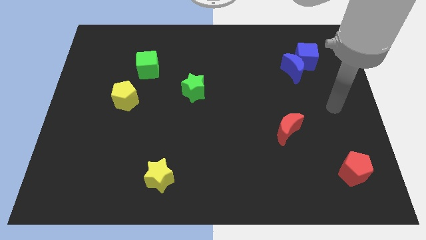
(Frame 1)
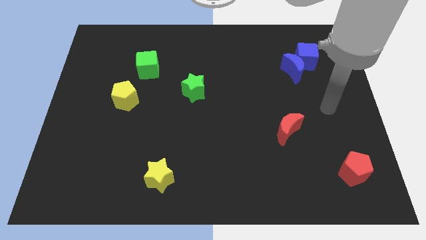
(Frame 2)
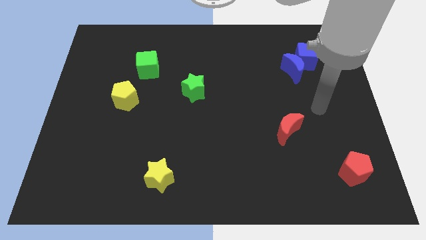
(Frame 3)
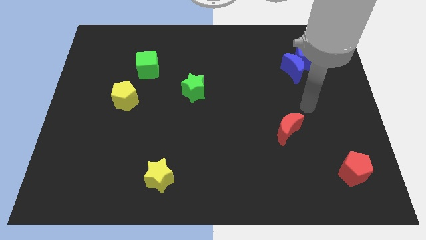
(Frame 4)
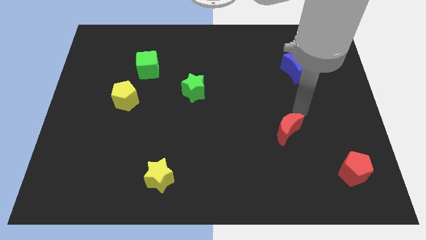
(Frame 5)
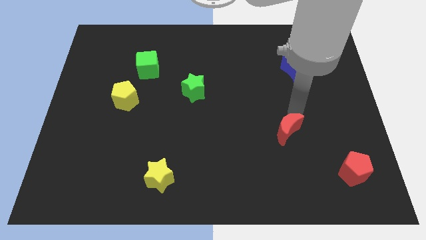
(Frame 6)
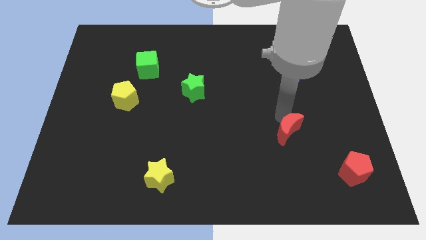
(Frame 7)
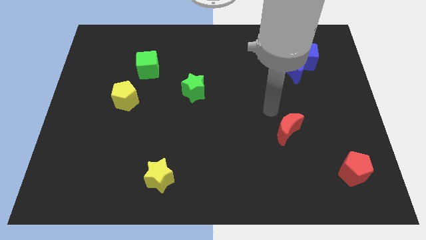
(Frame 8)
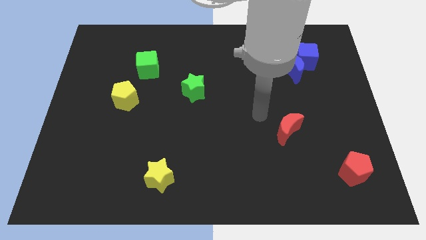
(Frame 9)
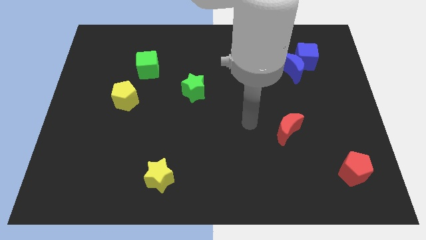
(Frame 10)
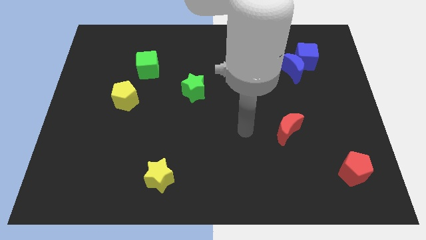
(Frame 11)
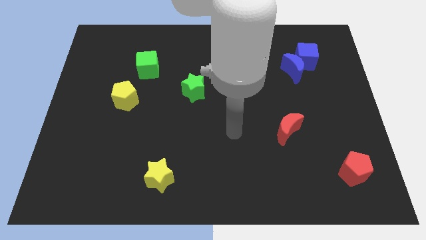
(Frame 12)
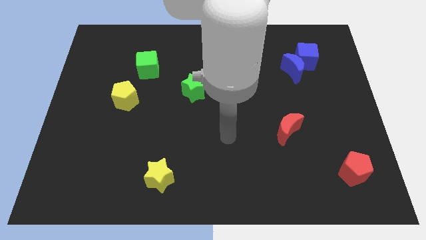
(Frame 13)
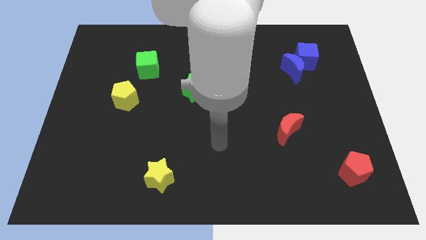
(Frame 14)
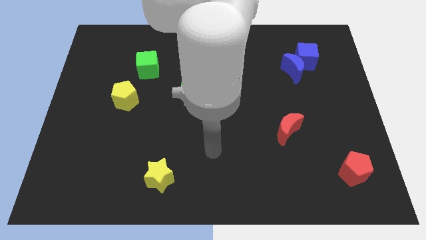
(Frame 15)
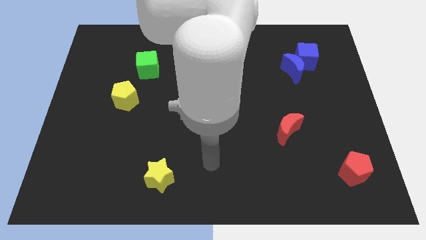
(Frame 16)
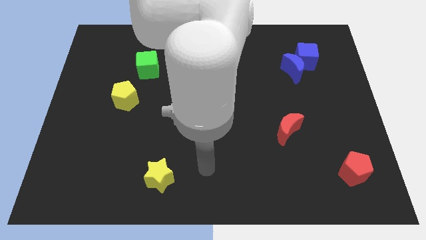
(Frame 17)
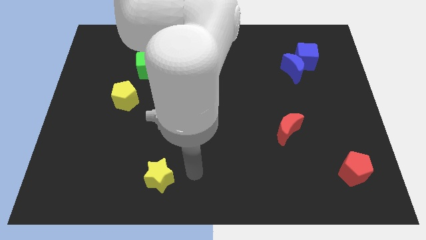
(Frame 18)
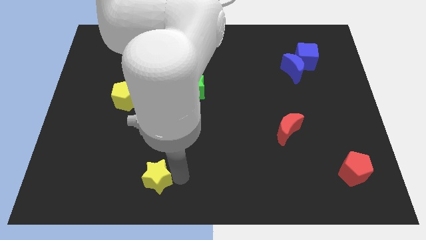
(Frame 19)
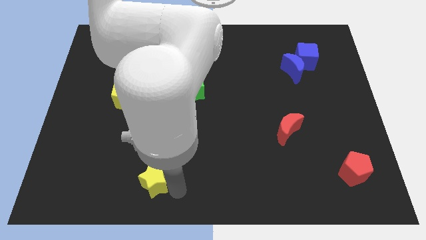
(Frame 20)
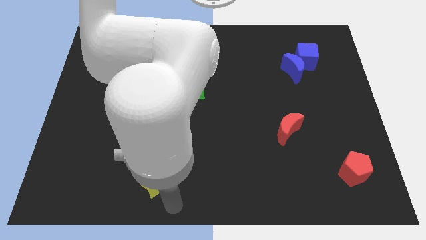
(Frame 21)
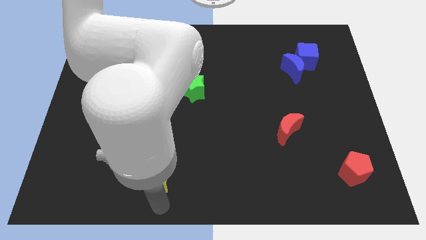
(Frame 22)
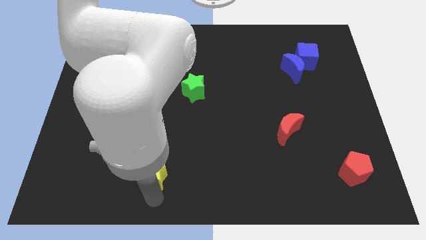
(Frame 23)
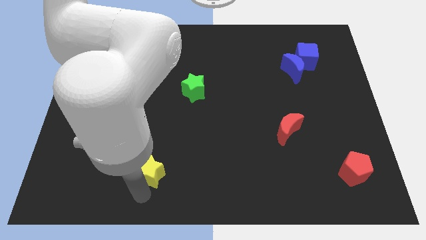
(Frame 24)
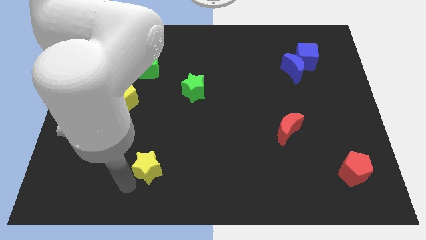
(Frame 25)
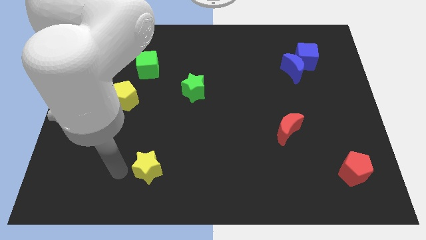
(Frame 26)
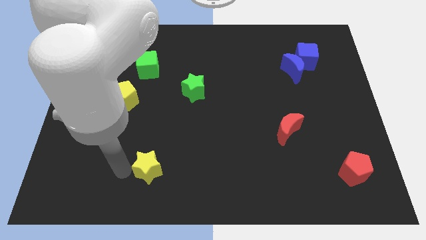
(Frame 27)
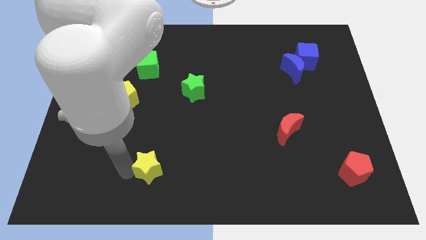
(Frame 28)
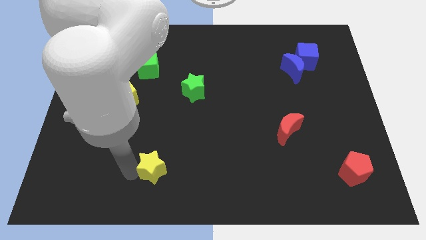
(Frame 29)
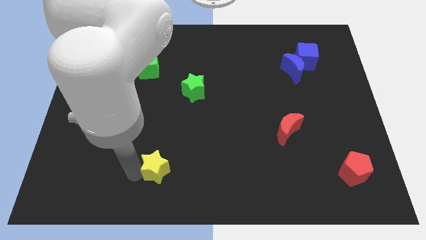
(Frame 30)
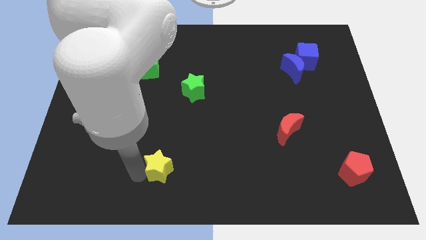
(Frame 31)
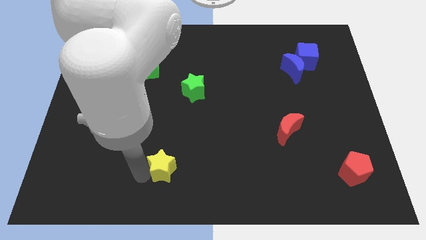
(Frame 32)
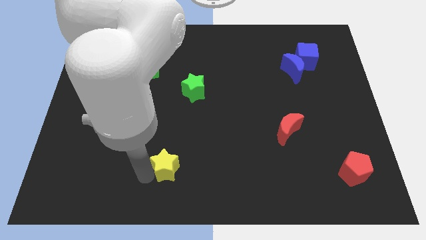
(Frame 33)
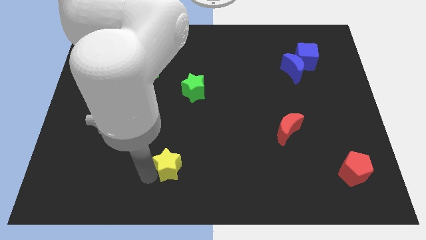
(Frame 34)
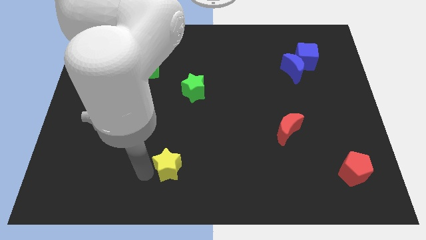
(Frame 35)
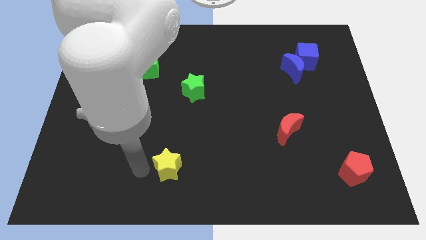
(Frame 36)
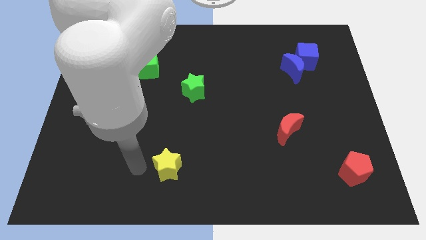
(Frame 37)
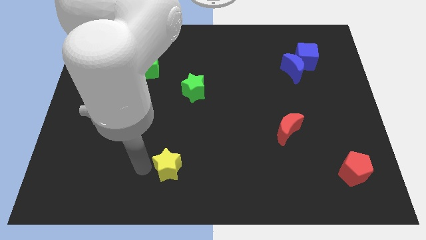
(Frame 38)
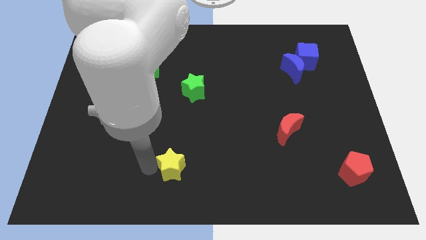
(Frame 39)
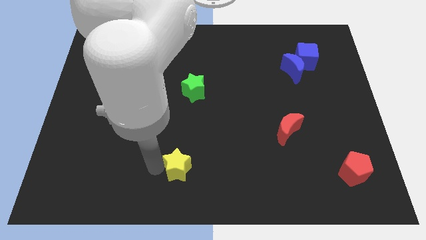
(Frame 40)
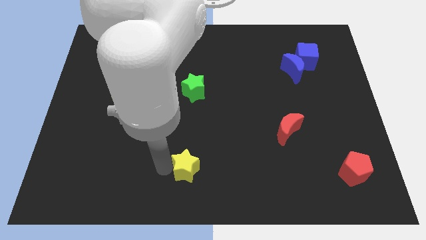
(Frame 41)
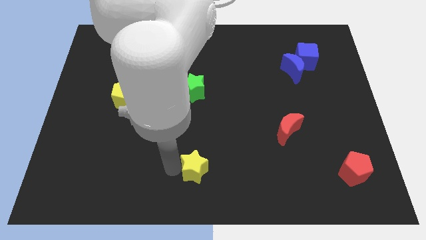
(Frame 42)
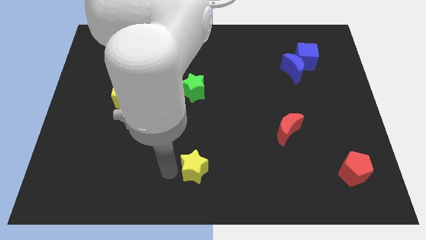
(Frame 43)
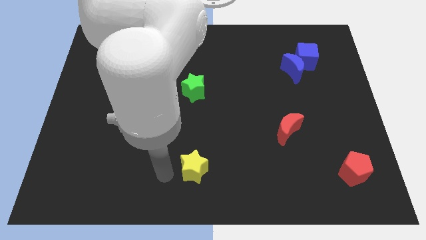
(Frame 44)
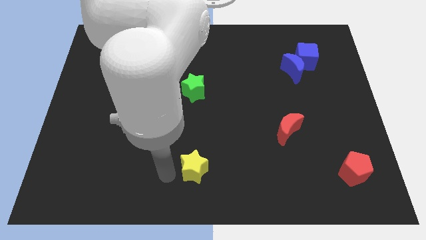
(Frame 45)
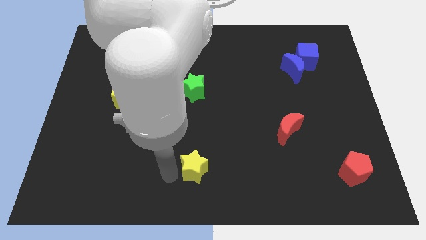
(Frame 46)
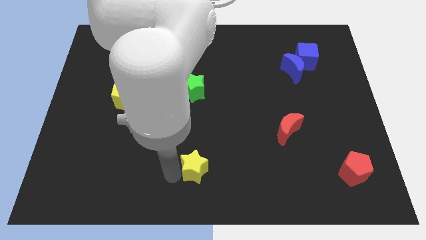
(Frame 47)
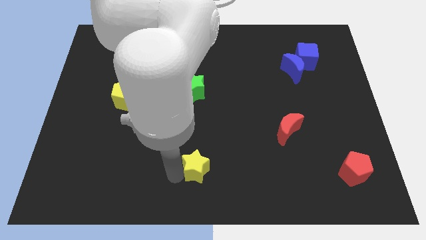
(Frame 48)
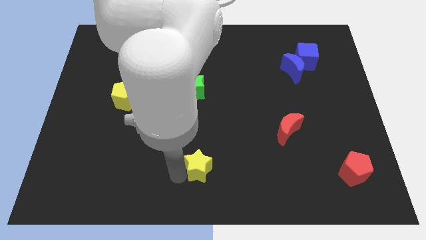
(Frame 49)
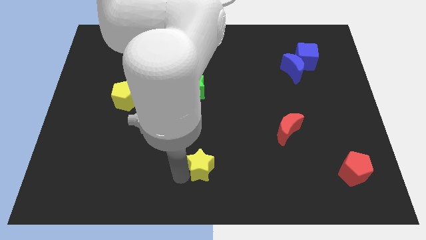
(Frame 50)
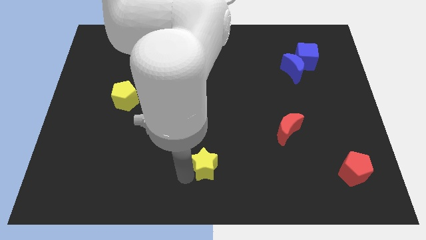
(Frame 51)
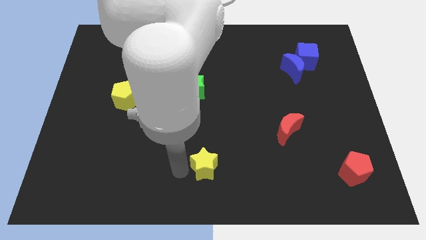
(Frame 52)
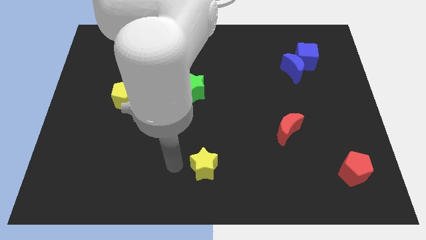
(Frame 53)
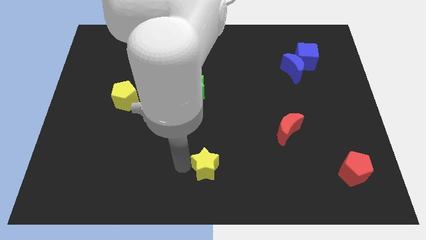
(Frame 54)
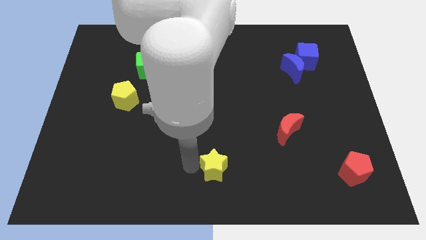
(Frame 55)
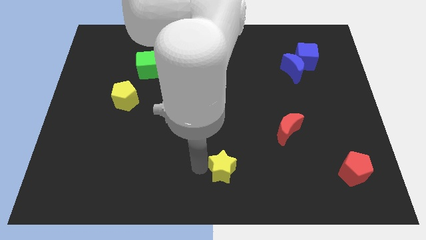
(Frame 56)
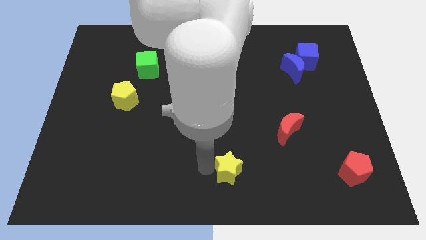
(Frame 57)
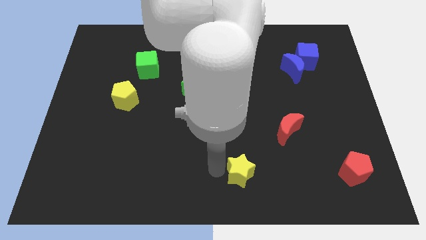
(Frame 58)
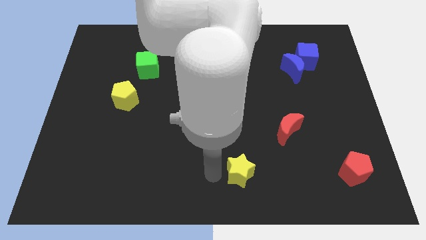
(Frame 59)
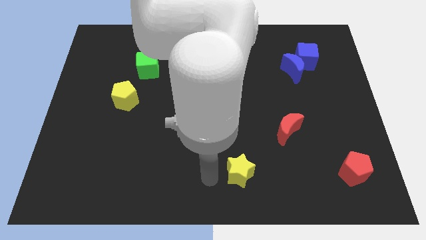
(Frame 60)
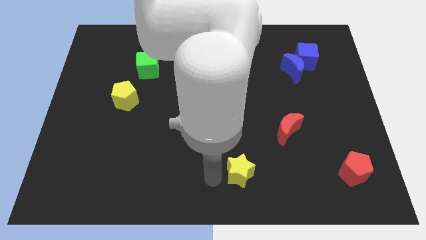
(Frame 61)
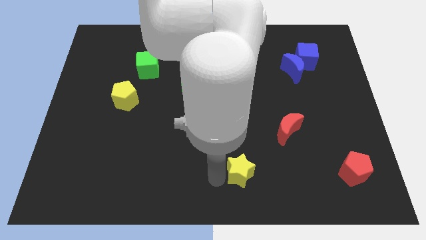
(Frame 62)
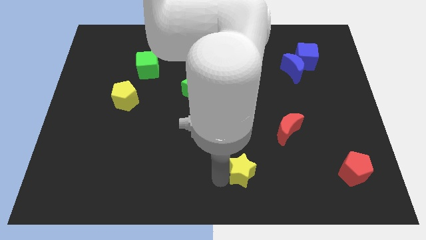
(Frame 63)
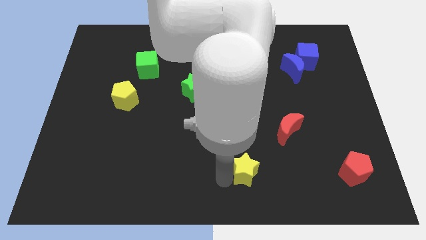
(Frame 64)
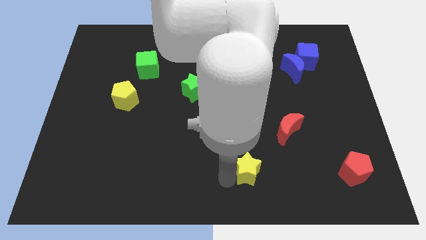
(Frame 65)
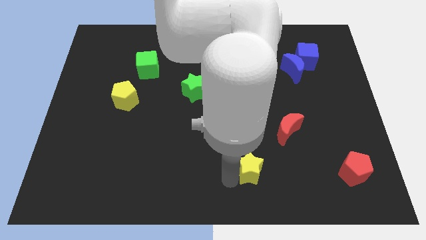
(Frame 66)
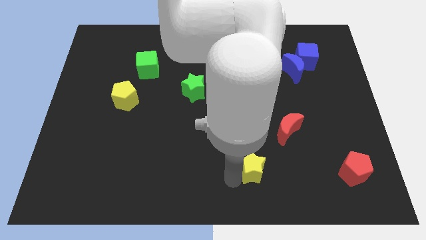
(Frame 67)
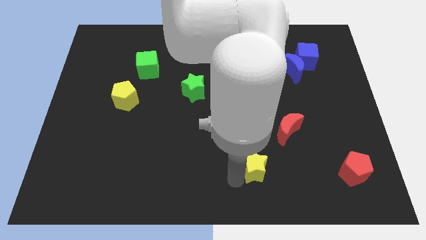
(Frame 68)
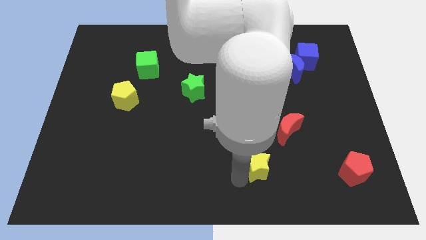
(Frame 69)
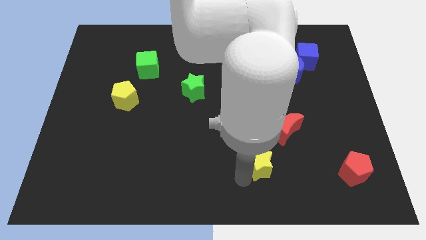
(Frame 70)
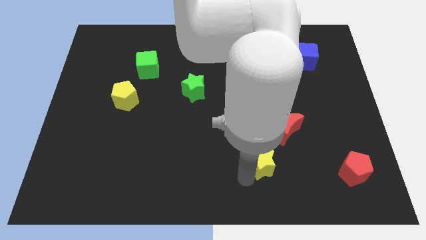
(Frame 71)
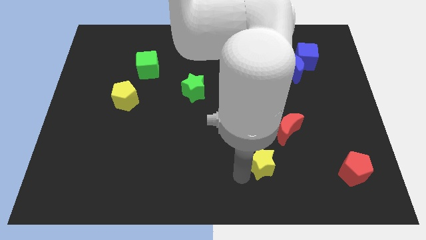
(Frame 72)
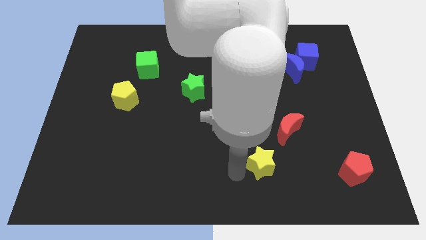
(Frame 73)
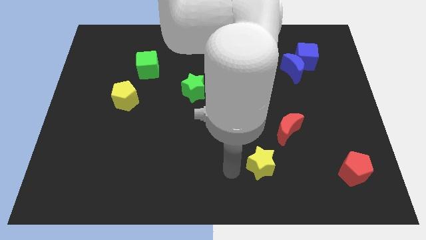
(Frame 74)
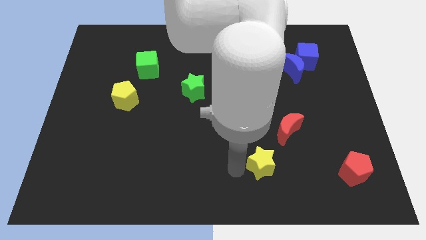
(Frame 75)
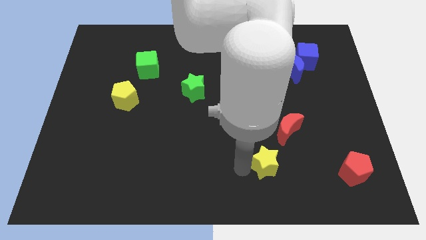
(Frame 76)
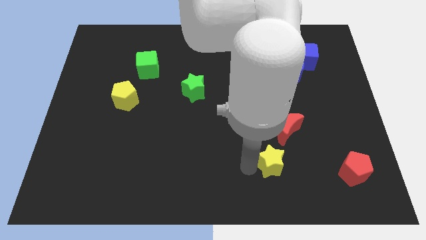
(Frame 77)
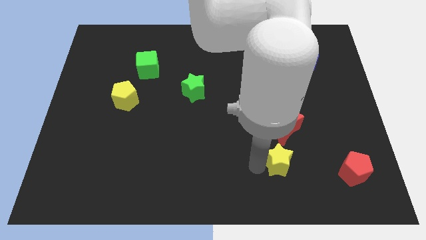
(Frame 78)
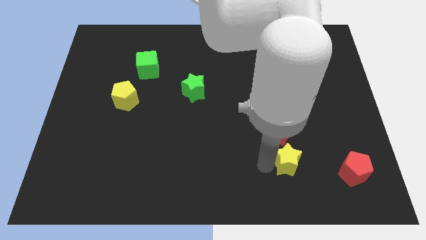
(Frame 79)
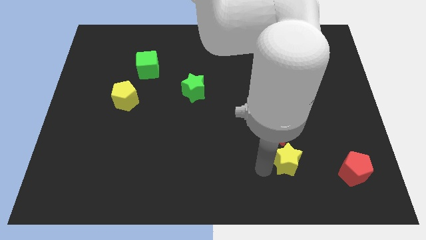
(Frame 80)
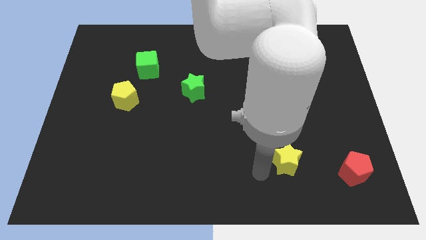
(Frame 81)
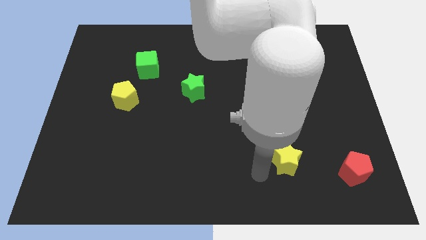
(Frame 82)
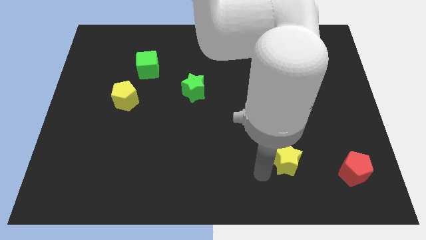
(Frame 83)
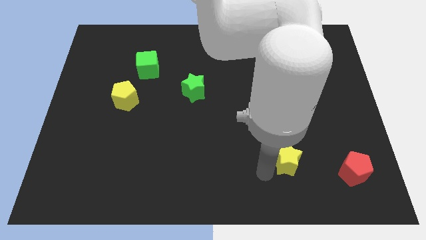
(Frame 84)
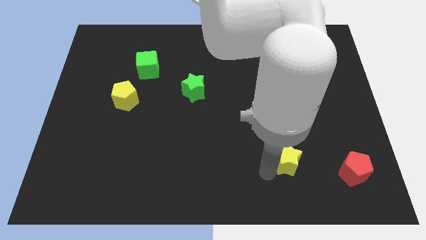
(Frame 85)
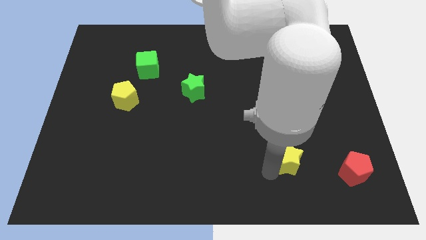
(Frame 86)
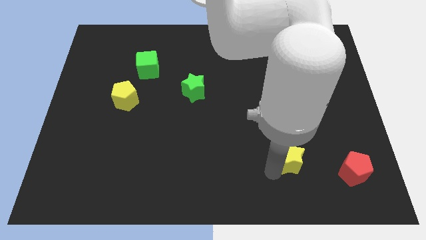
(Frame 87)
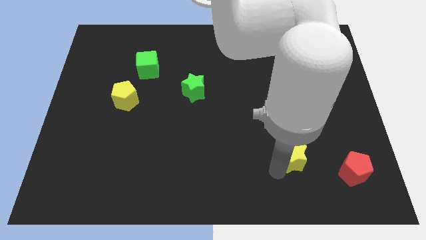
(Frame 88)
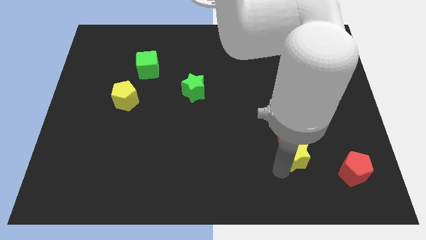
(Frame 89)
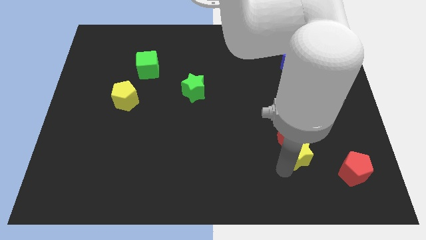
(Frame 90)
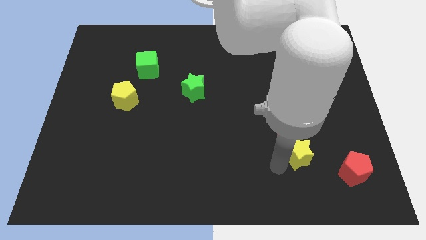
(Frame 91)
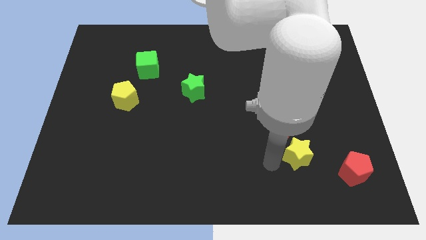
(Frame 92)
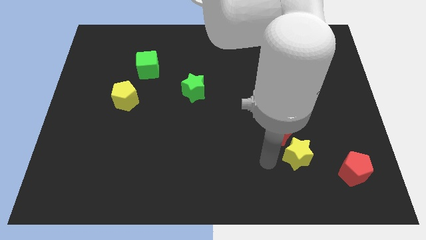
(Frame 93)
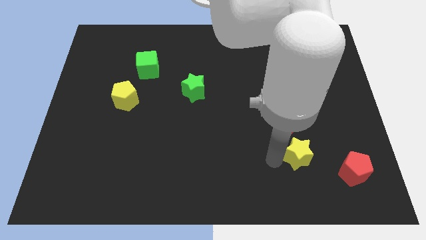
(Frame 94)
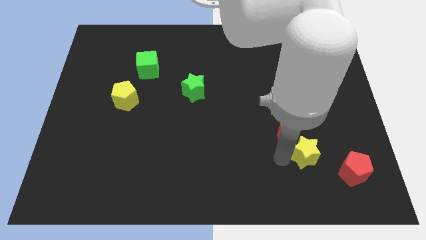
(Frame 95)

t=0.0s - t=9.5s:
slide the yellow star to the top left side of the red pentagon
